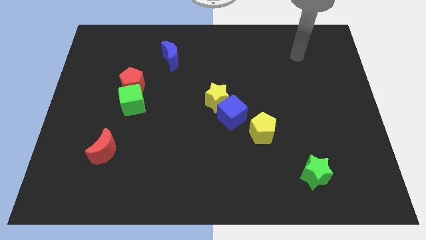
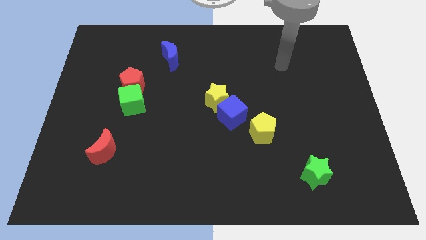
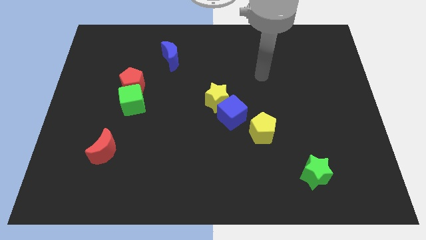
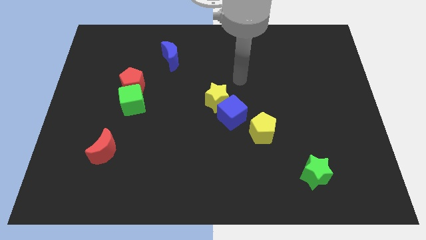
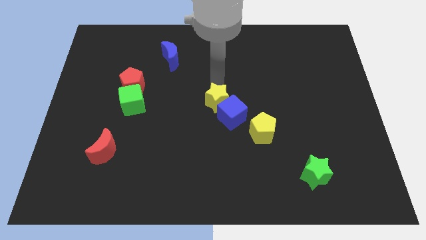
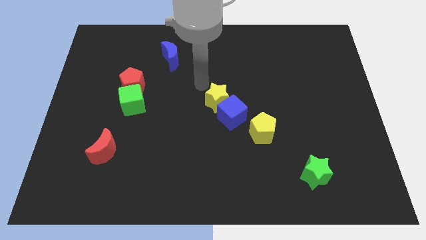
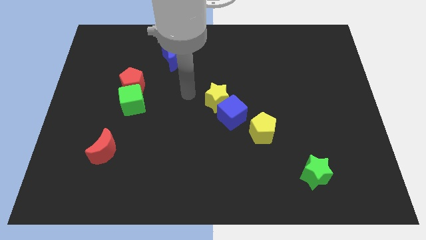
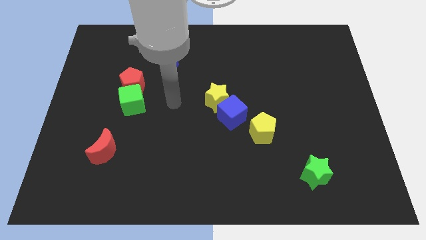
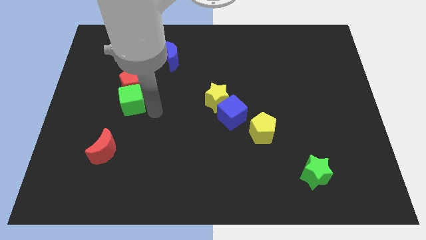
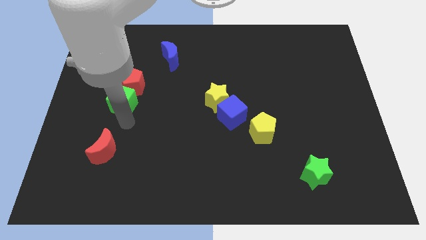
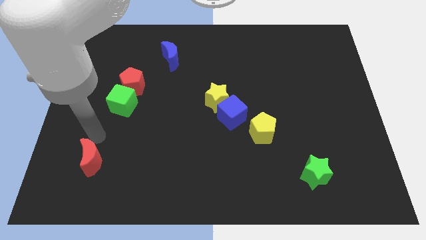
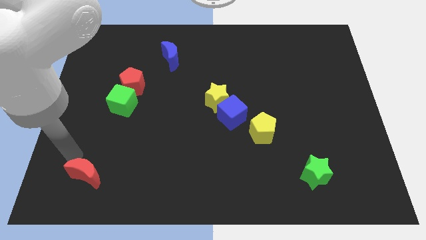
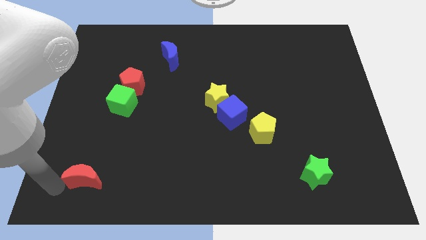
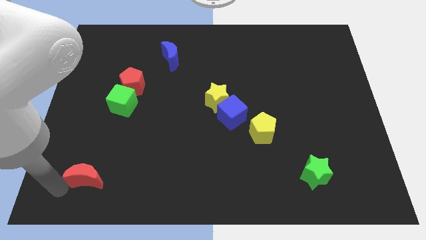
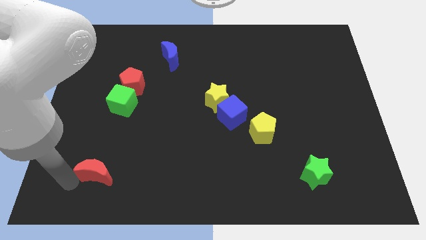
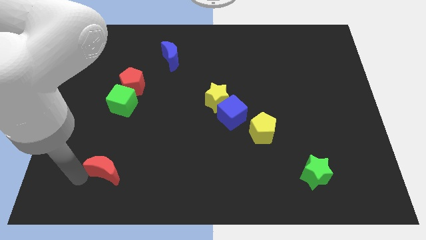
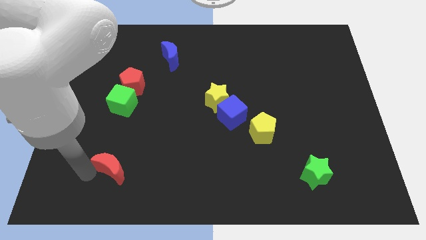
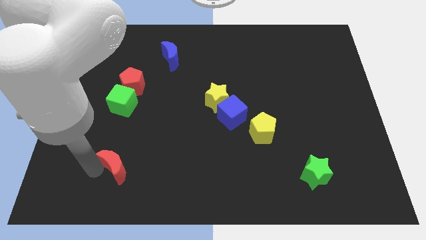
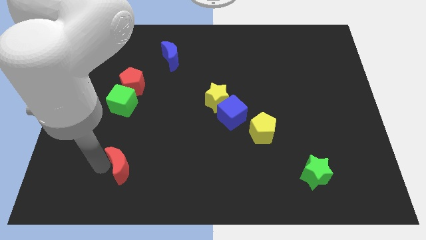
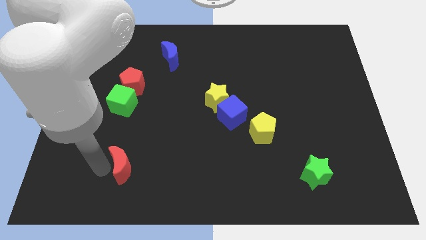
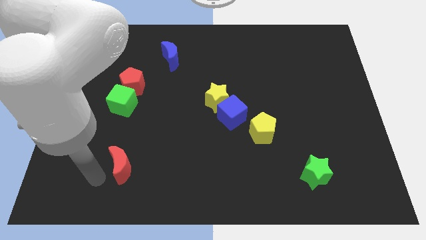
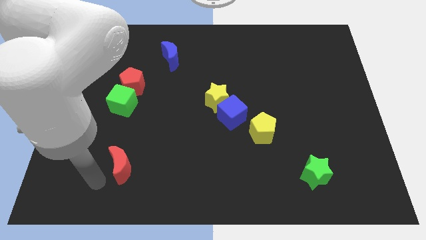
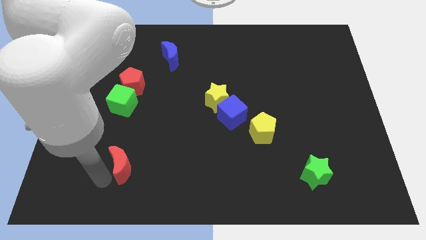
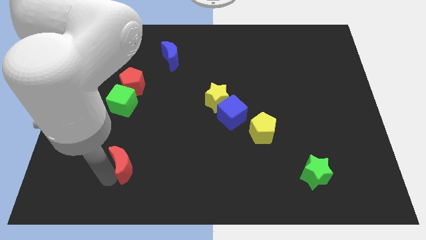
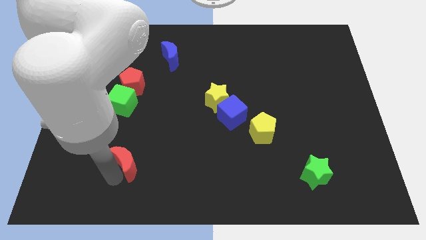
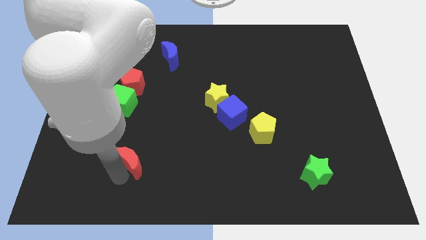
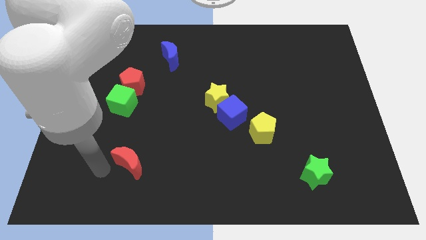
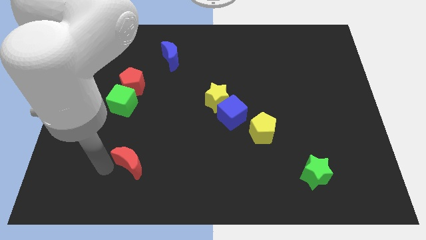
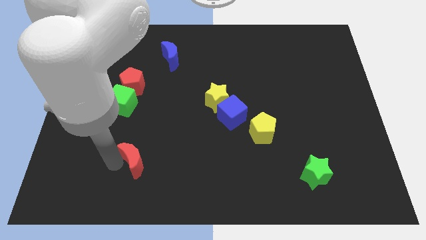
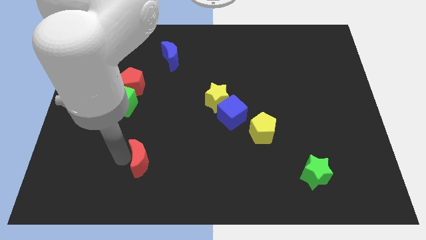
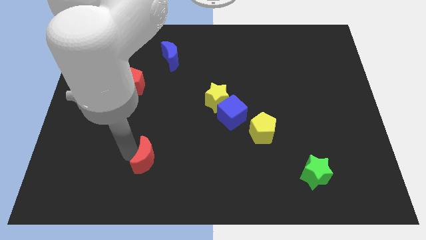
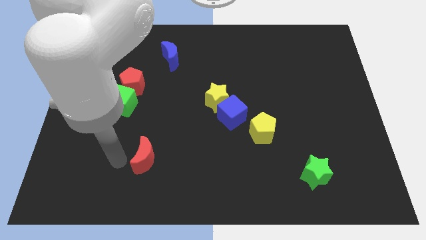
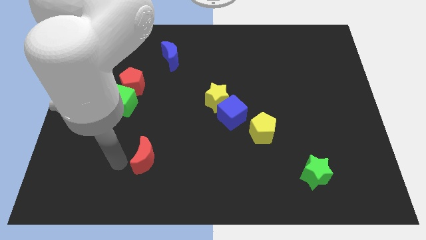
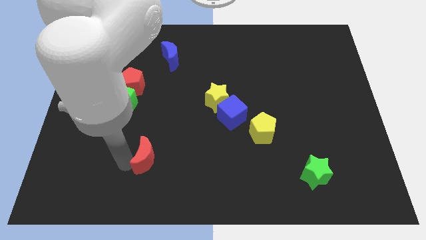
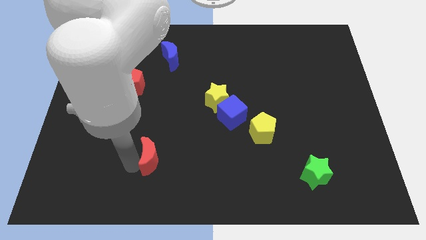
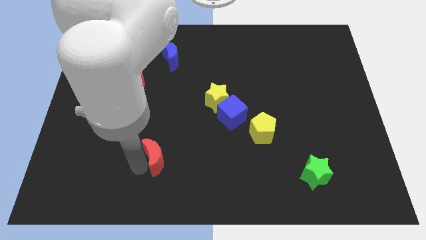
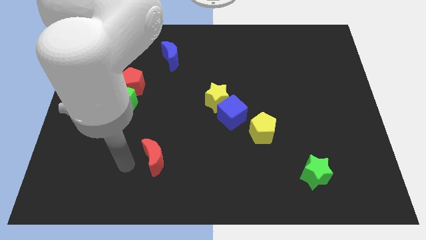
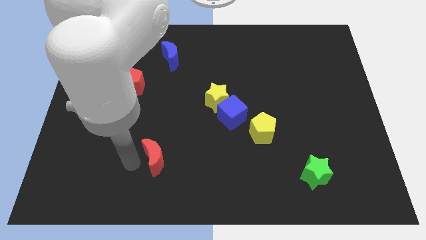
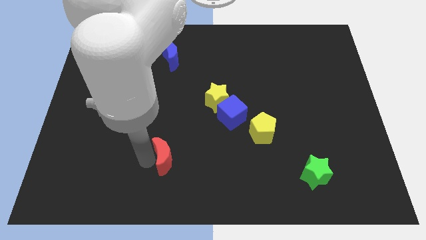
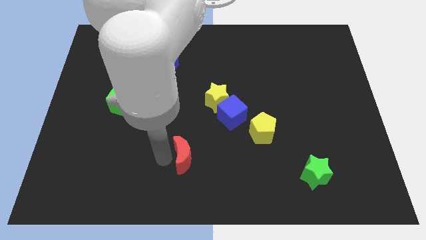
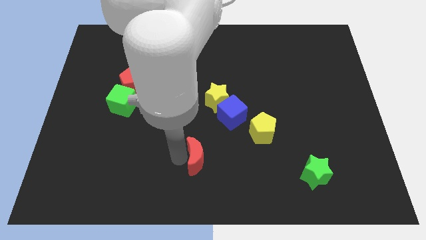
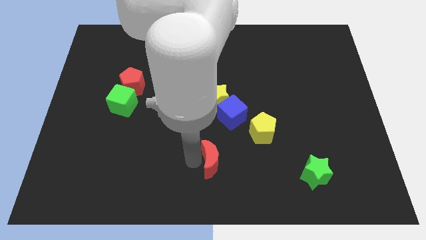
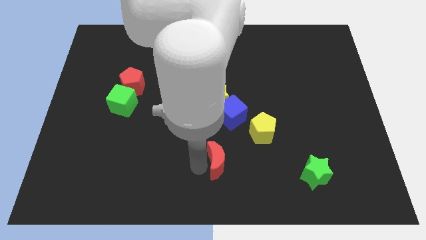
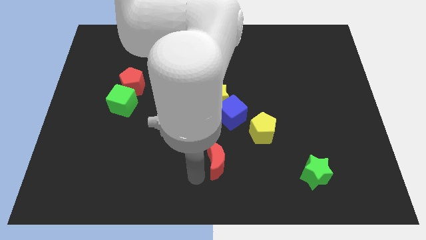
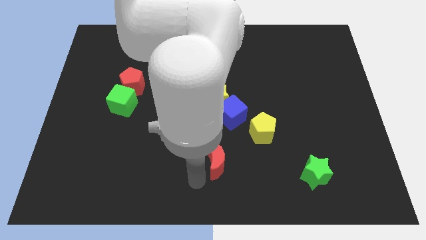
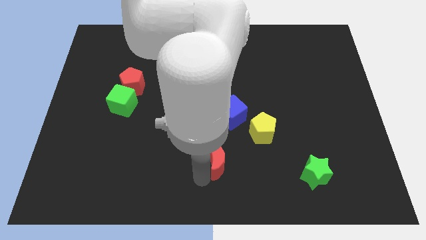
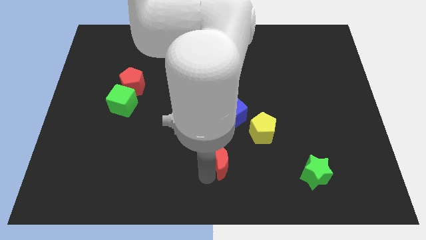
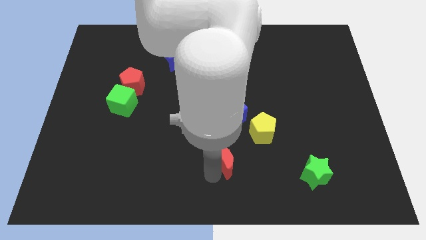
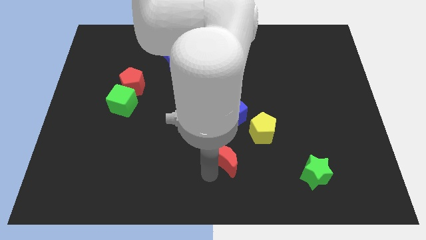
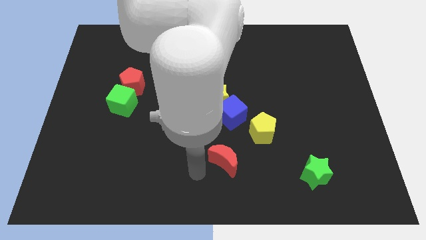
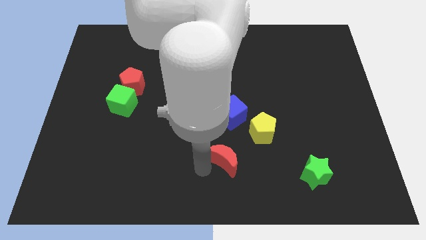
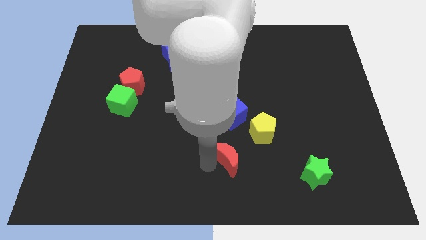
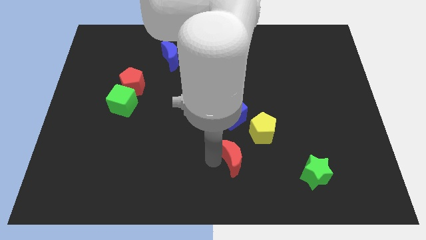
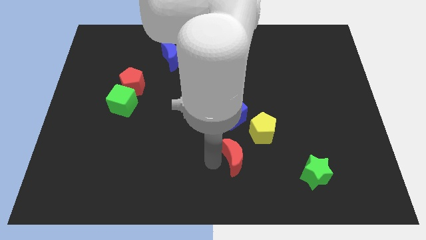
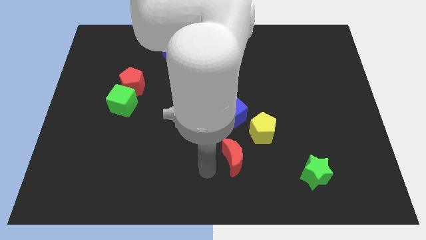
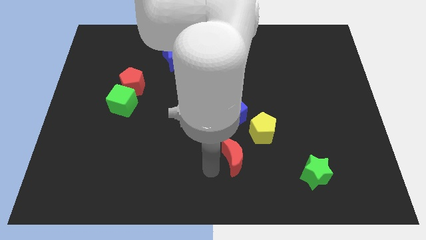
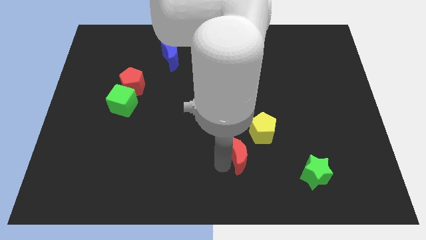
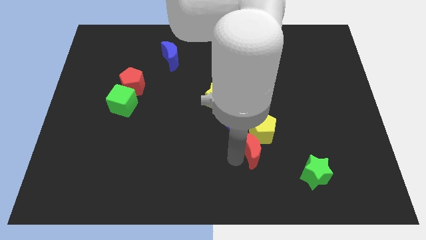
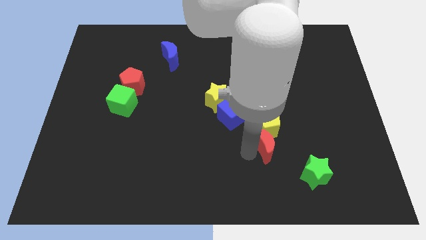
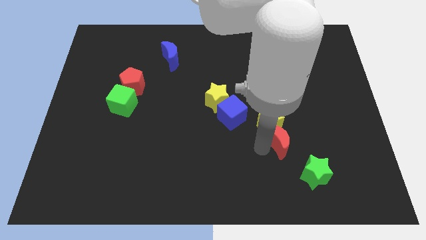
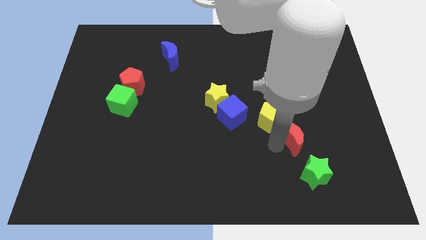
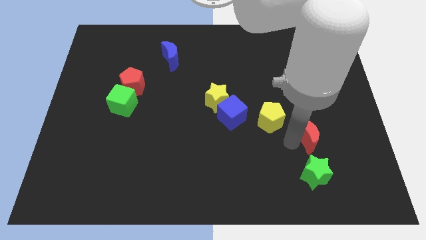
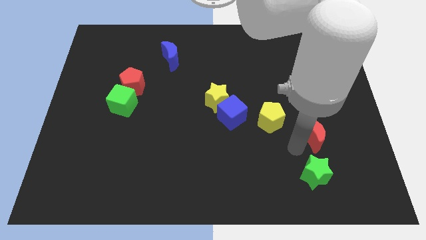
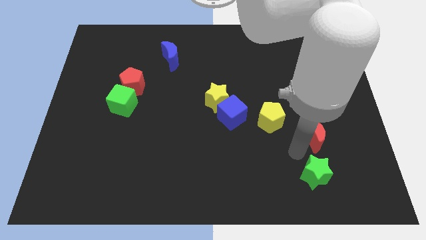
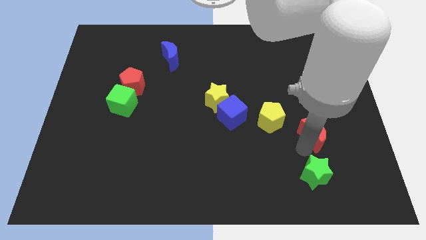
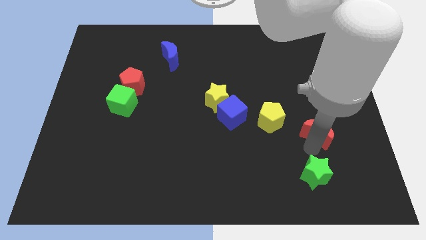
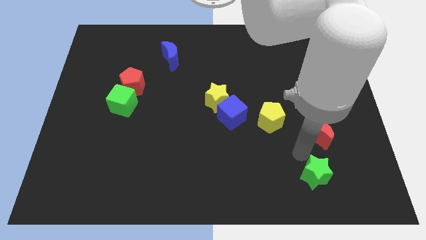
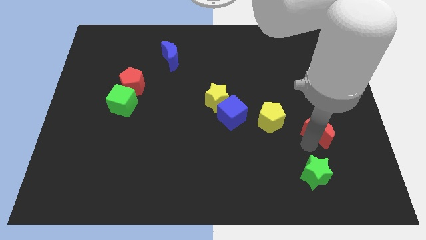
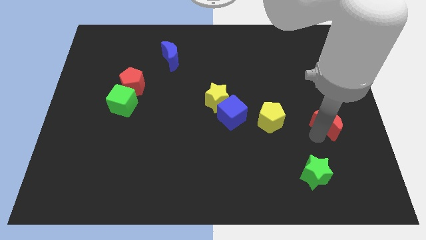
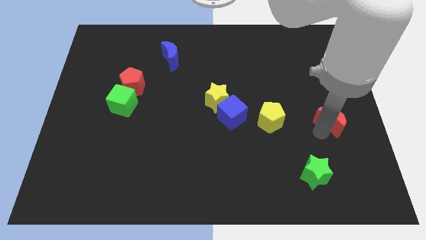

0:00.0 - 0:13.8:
move the red moon to the center right
